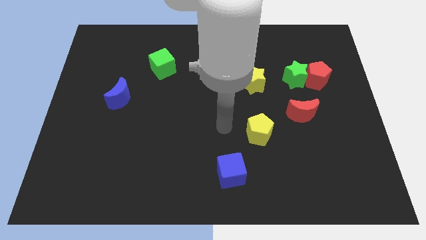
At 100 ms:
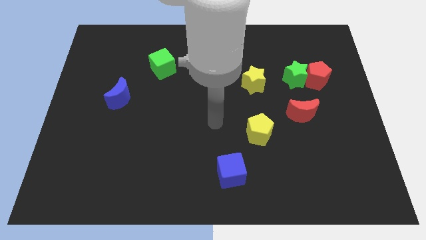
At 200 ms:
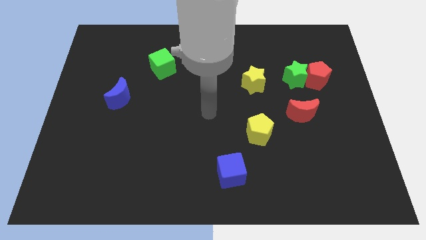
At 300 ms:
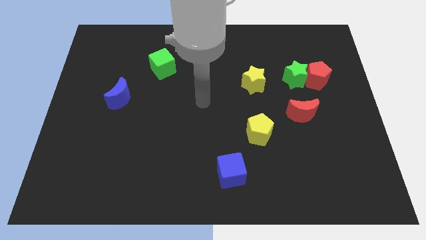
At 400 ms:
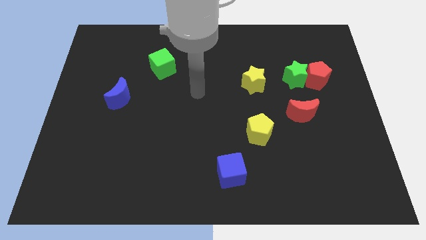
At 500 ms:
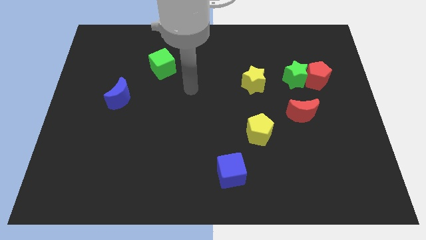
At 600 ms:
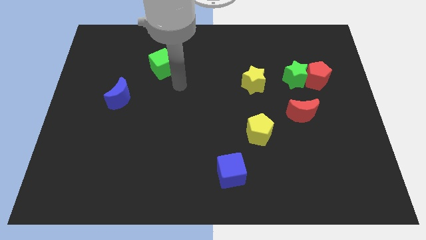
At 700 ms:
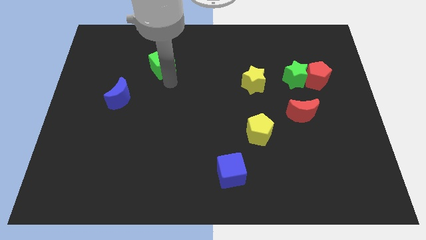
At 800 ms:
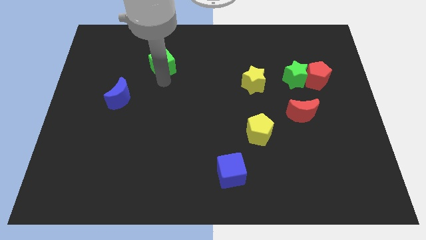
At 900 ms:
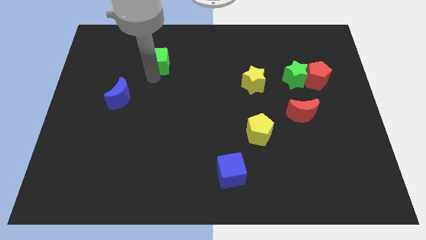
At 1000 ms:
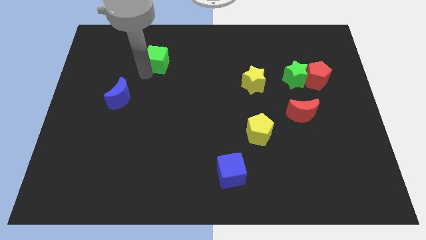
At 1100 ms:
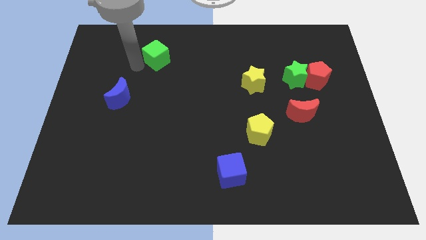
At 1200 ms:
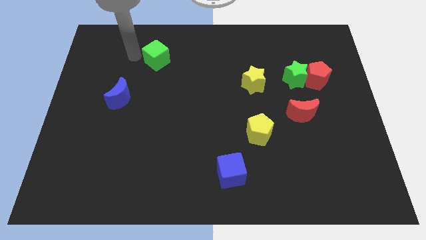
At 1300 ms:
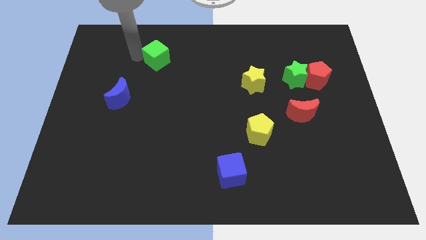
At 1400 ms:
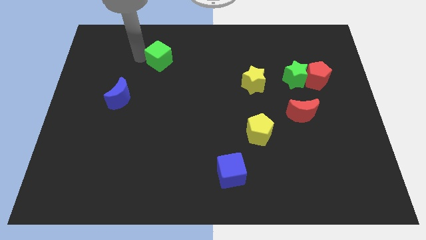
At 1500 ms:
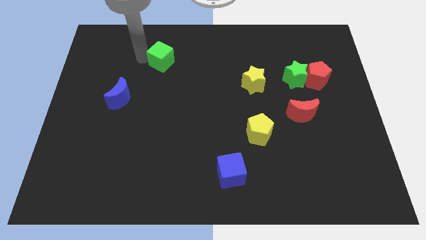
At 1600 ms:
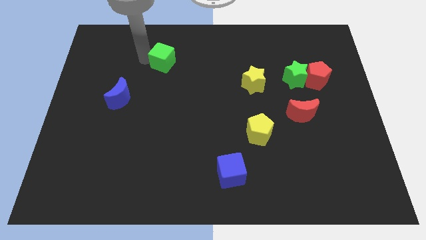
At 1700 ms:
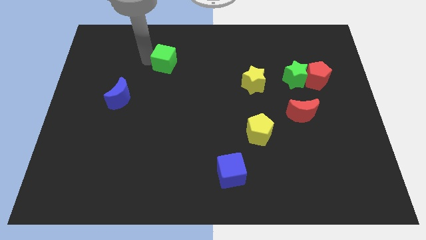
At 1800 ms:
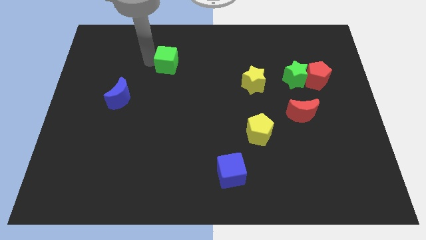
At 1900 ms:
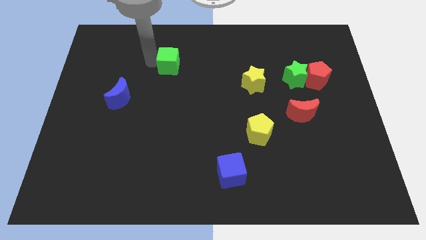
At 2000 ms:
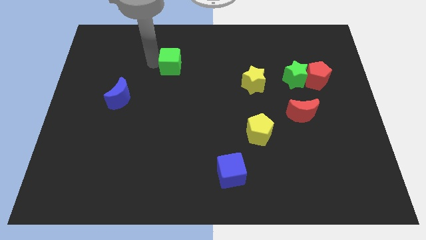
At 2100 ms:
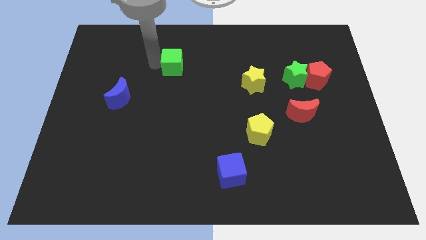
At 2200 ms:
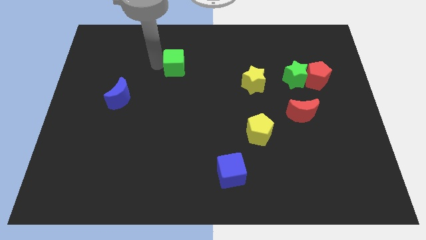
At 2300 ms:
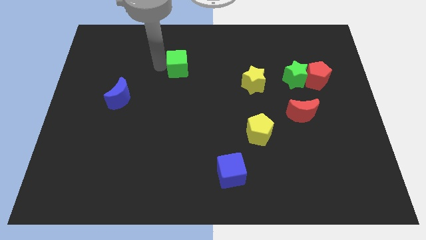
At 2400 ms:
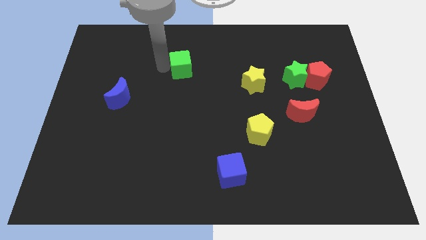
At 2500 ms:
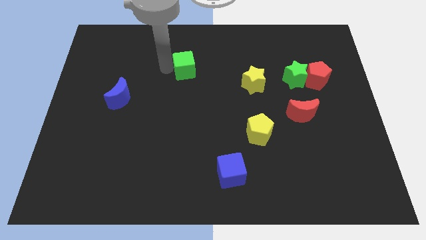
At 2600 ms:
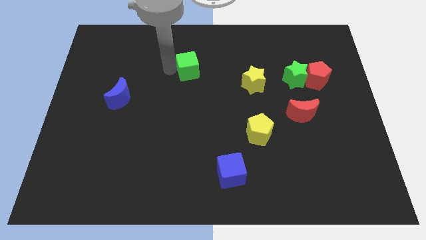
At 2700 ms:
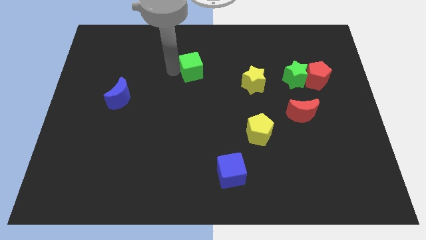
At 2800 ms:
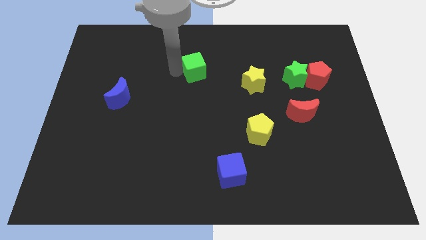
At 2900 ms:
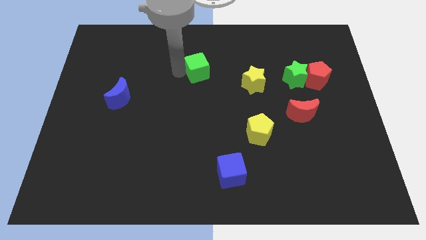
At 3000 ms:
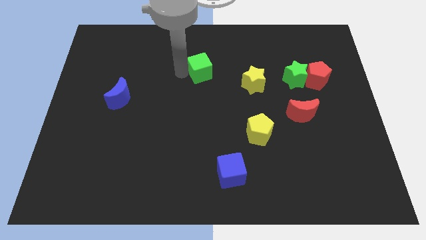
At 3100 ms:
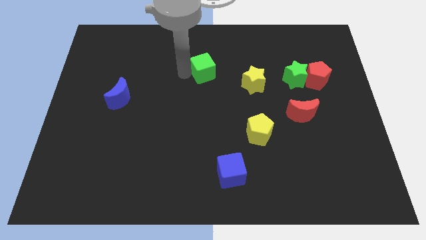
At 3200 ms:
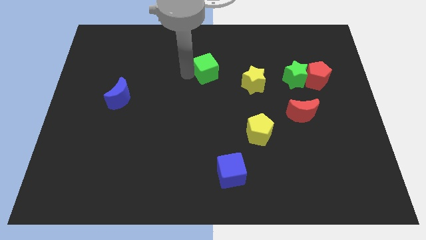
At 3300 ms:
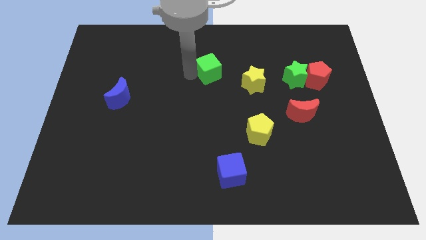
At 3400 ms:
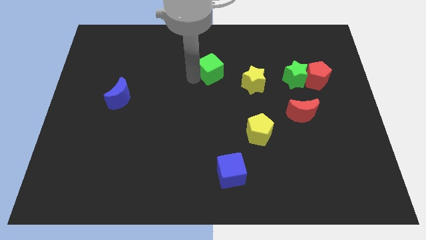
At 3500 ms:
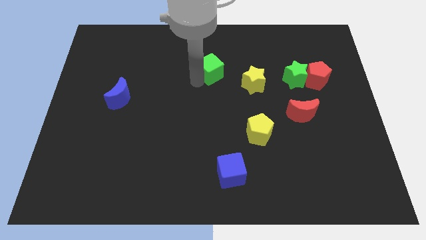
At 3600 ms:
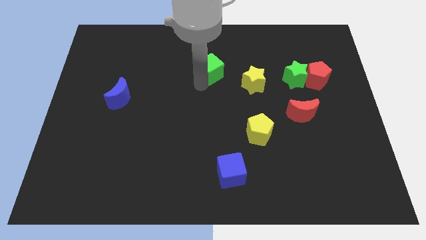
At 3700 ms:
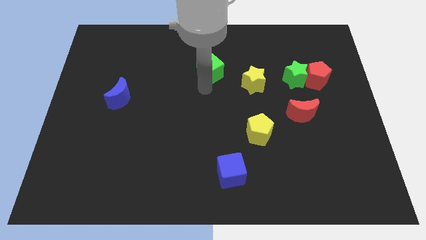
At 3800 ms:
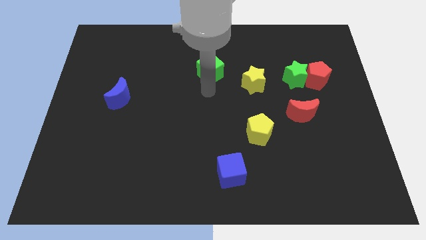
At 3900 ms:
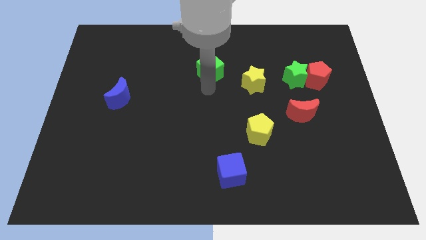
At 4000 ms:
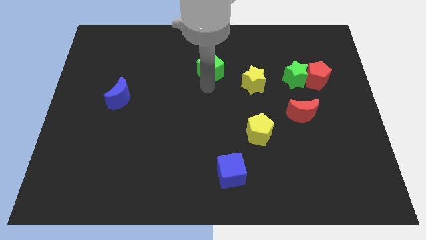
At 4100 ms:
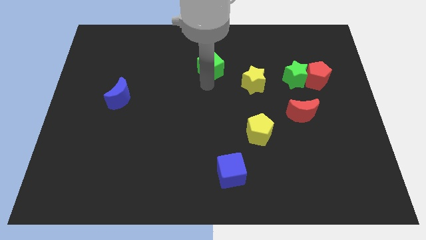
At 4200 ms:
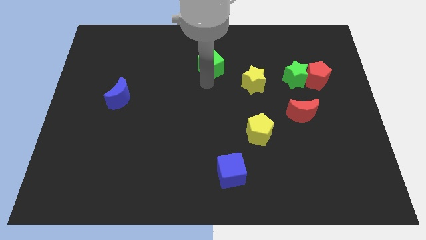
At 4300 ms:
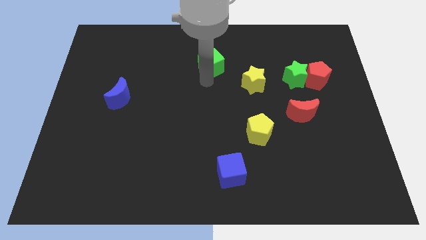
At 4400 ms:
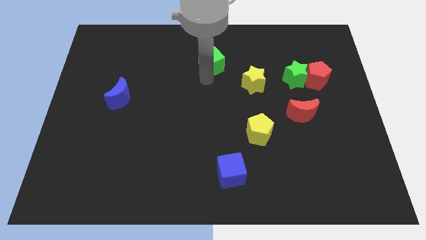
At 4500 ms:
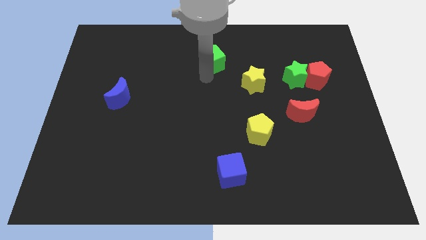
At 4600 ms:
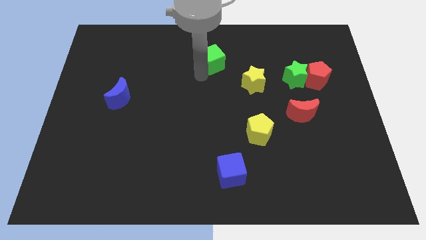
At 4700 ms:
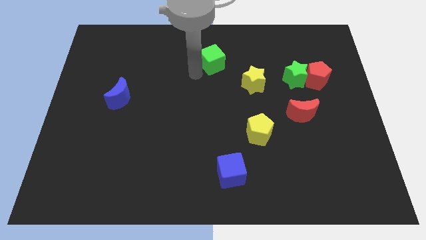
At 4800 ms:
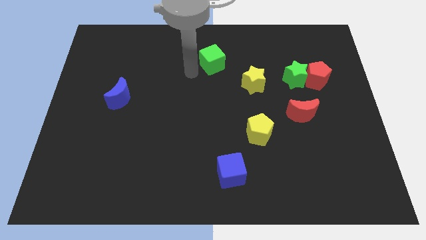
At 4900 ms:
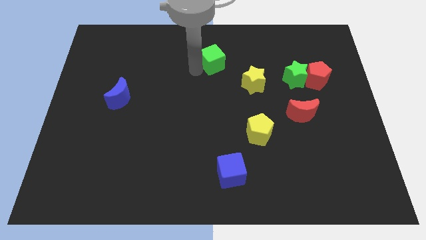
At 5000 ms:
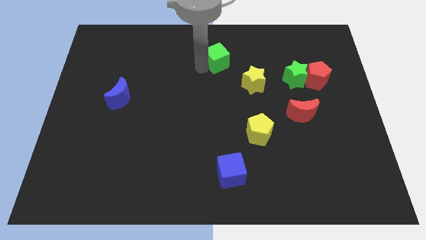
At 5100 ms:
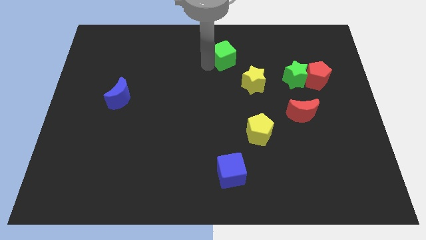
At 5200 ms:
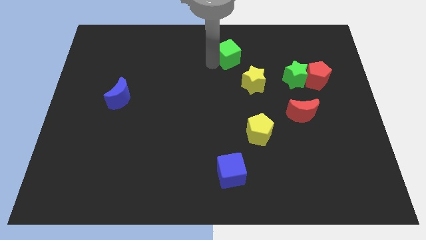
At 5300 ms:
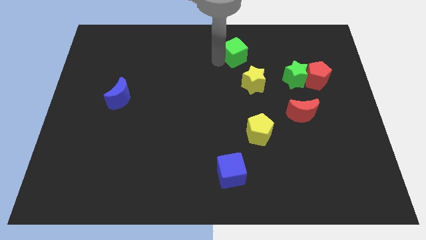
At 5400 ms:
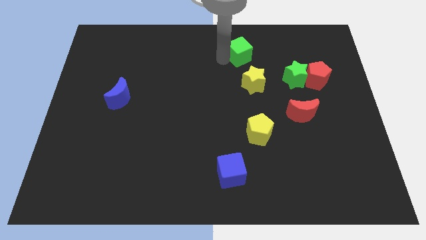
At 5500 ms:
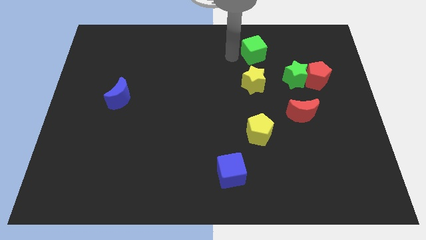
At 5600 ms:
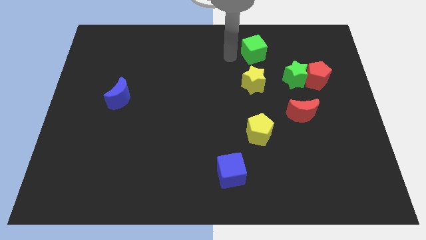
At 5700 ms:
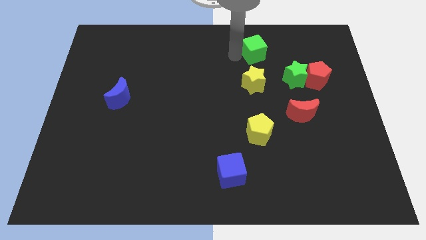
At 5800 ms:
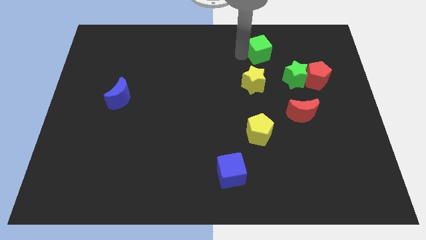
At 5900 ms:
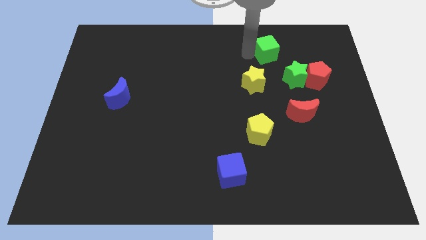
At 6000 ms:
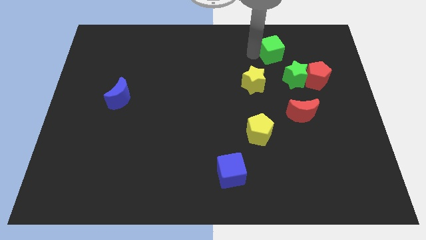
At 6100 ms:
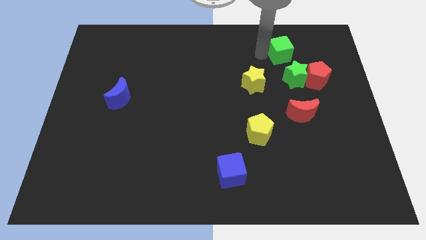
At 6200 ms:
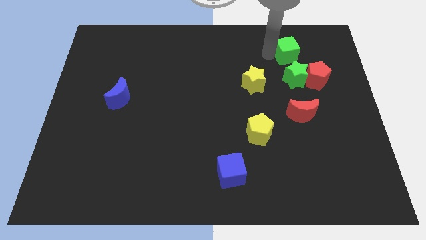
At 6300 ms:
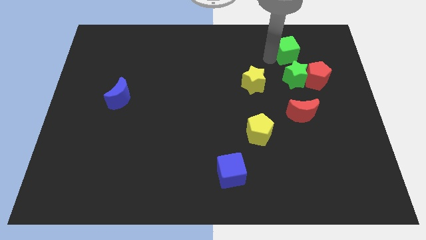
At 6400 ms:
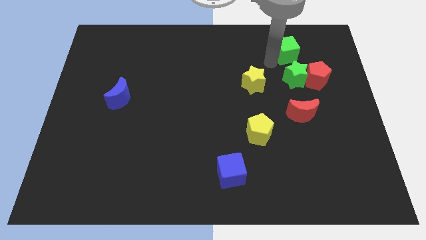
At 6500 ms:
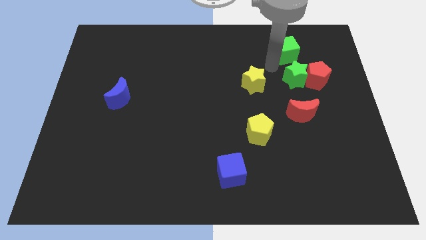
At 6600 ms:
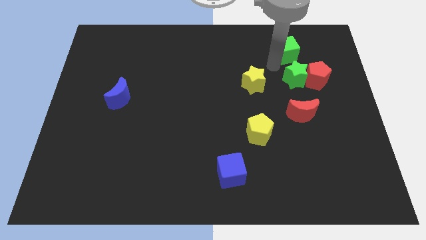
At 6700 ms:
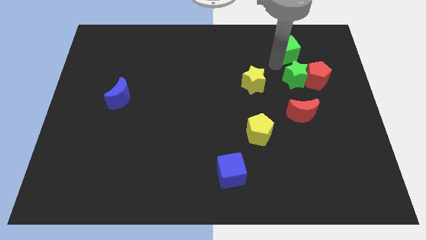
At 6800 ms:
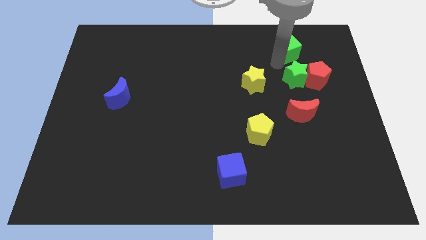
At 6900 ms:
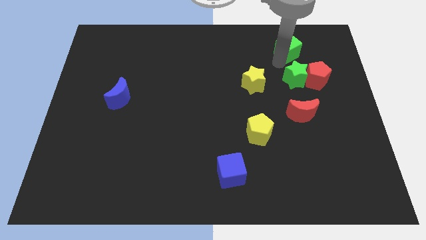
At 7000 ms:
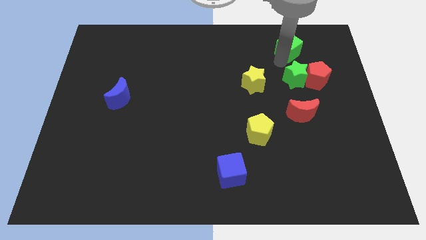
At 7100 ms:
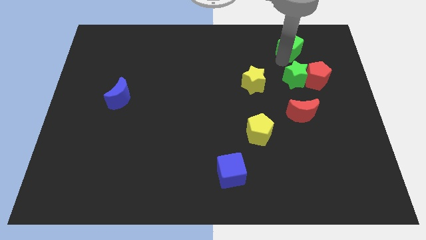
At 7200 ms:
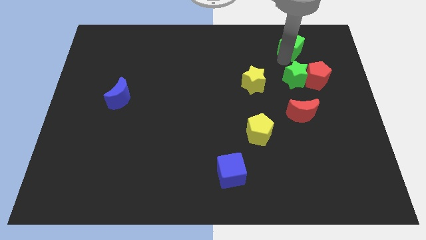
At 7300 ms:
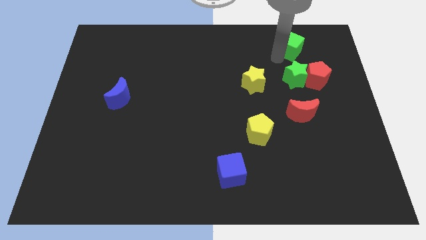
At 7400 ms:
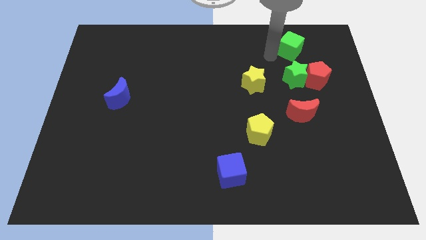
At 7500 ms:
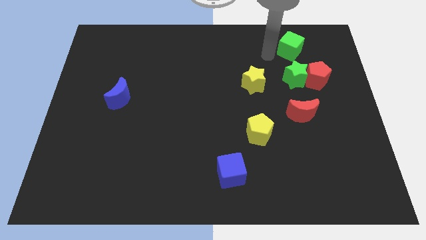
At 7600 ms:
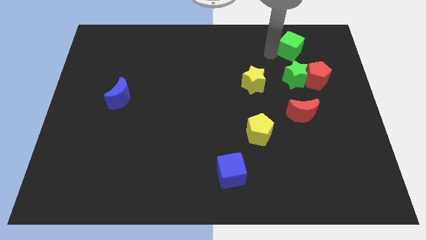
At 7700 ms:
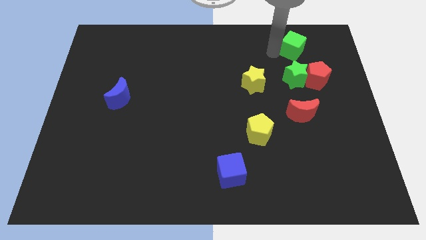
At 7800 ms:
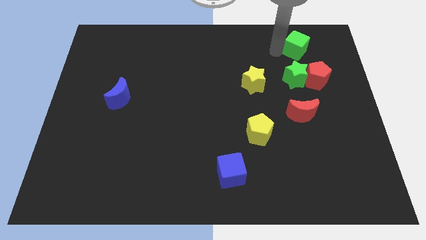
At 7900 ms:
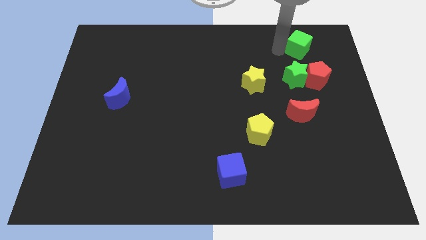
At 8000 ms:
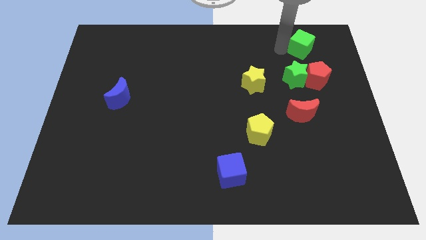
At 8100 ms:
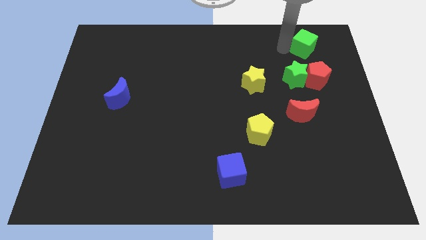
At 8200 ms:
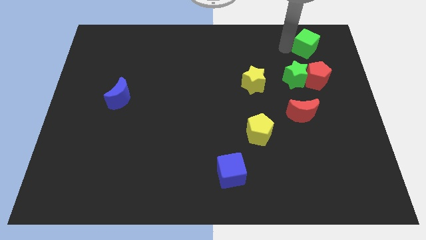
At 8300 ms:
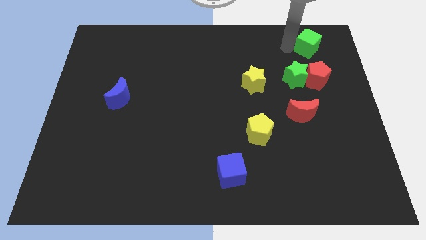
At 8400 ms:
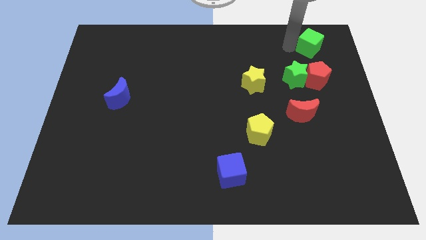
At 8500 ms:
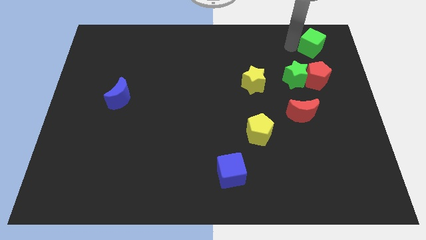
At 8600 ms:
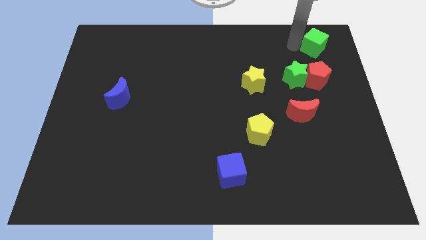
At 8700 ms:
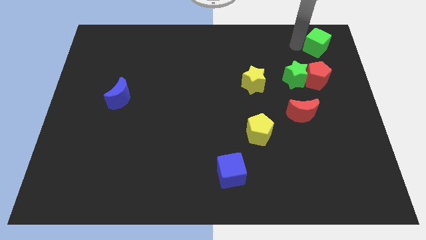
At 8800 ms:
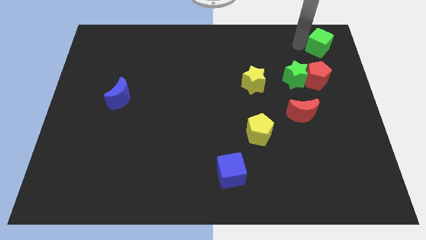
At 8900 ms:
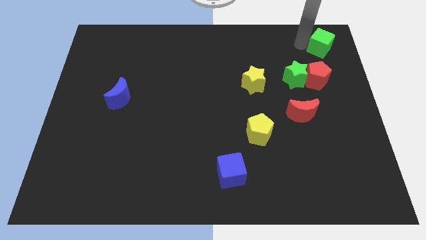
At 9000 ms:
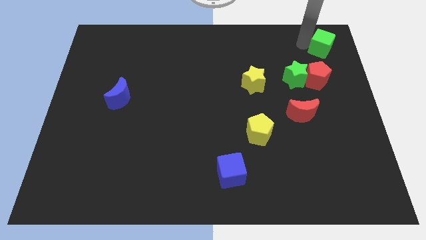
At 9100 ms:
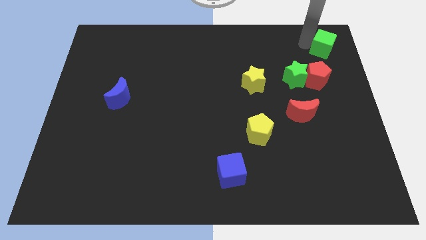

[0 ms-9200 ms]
move the green cube to the top right corner
